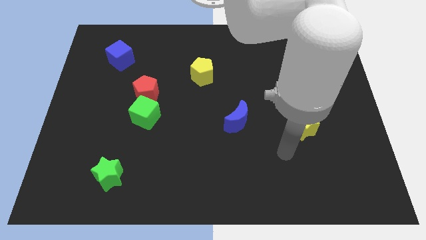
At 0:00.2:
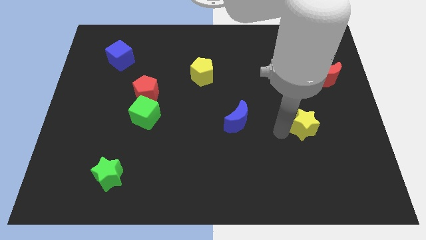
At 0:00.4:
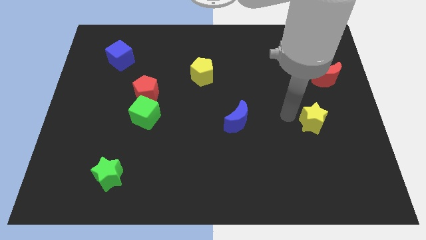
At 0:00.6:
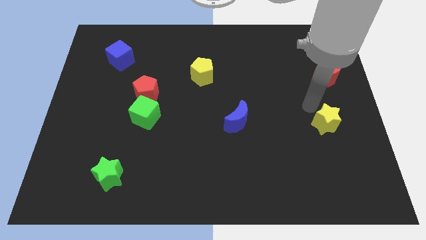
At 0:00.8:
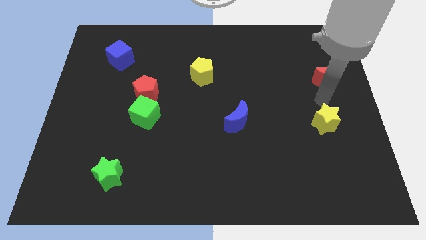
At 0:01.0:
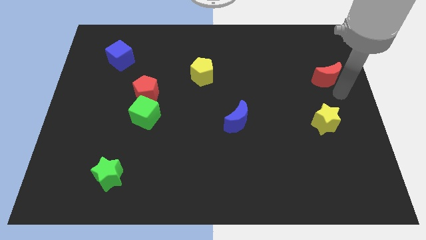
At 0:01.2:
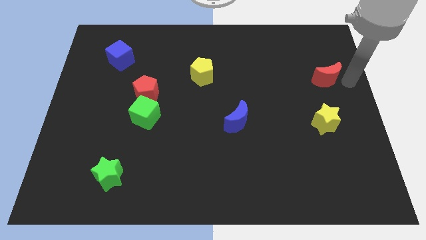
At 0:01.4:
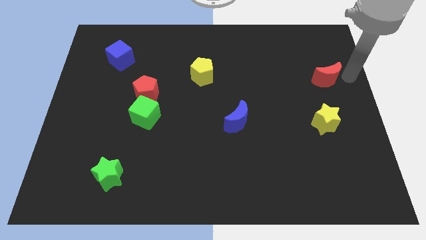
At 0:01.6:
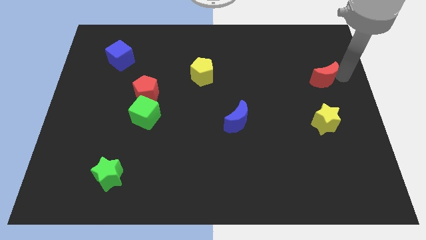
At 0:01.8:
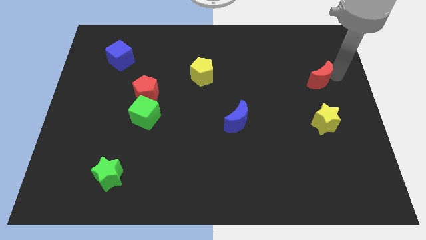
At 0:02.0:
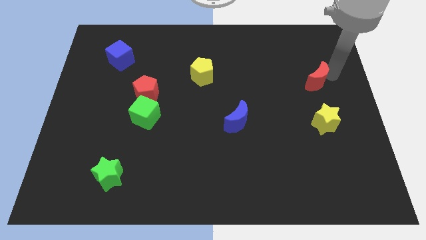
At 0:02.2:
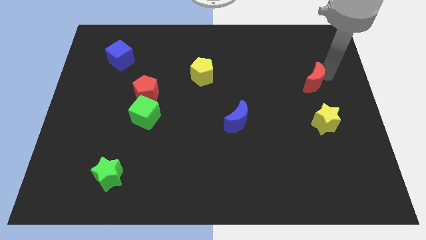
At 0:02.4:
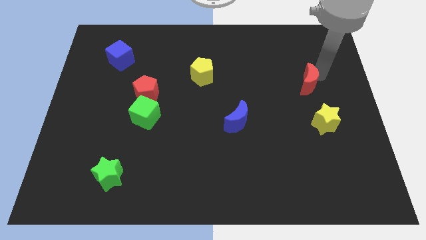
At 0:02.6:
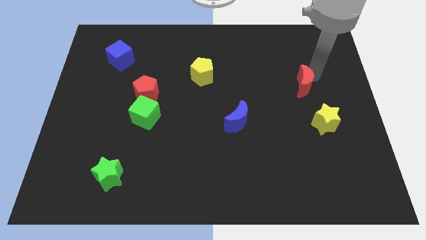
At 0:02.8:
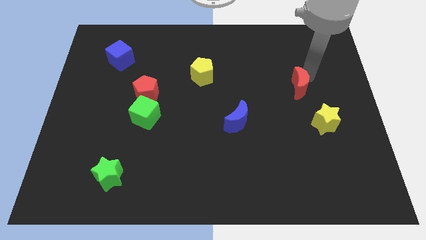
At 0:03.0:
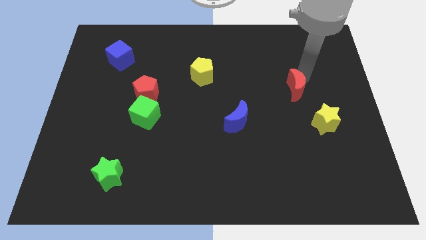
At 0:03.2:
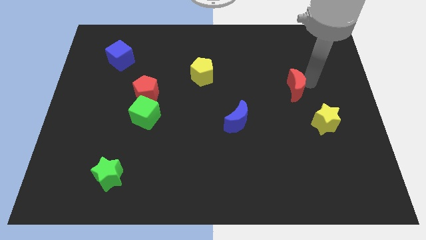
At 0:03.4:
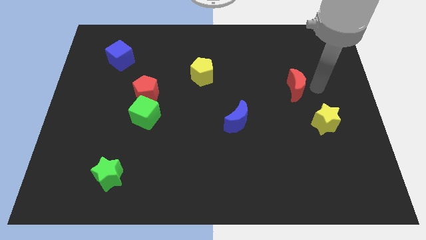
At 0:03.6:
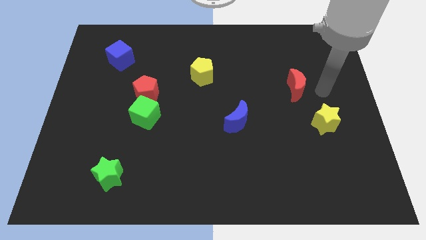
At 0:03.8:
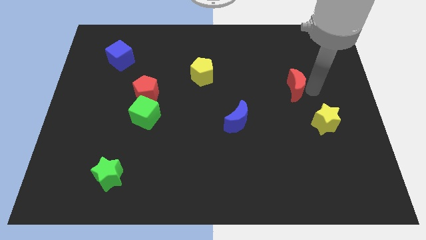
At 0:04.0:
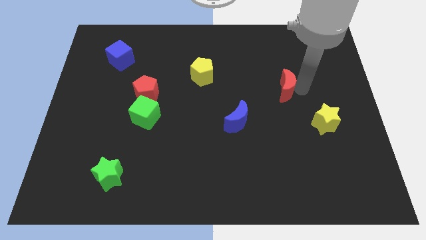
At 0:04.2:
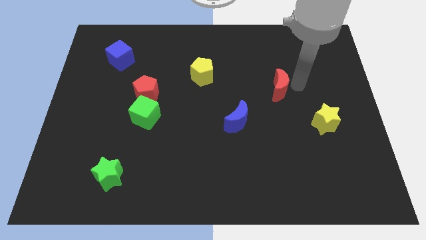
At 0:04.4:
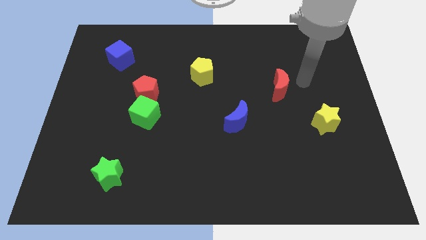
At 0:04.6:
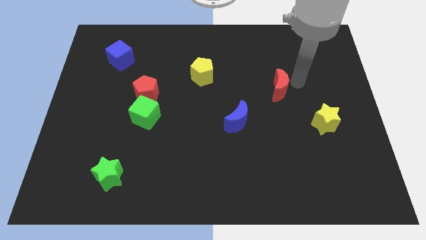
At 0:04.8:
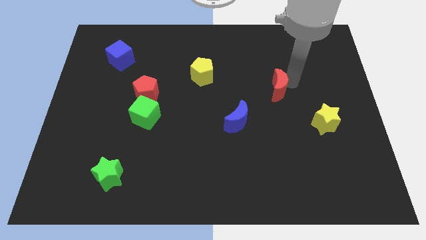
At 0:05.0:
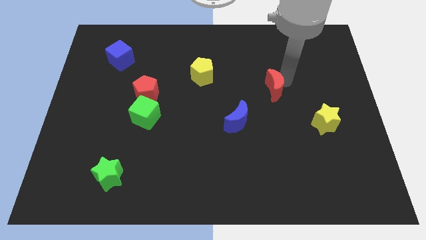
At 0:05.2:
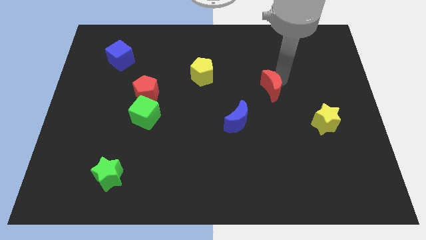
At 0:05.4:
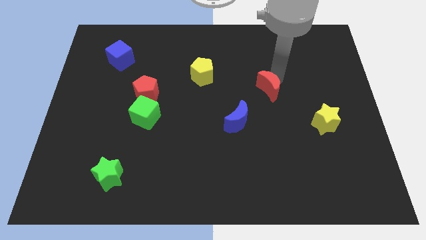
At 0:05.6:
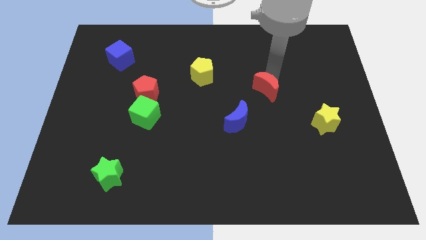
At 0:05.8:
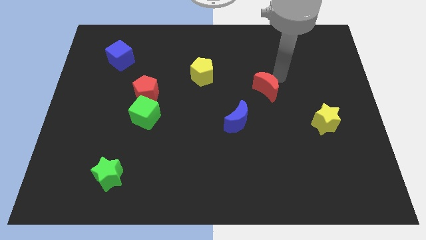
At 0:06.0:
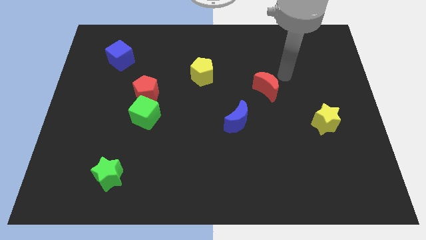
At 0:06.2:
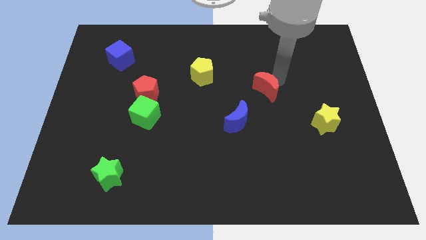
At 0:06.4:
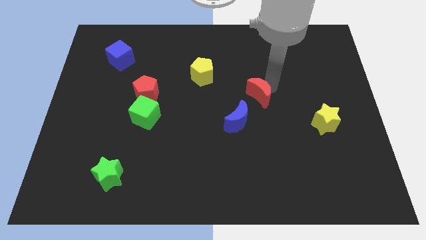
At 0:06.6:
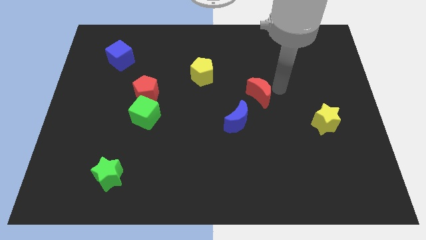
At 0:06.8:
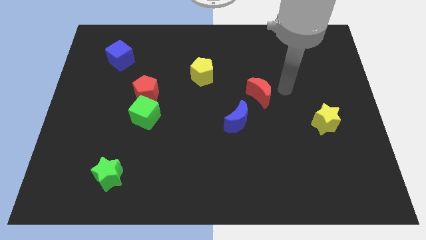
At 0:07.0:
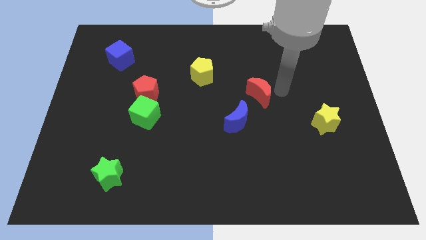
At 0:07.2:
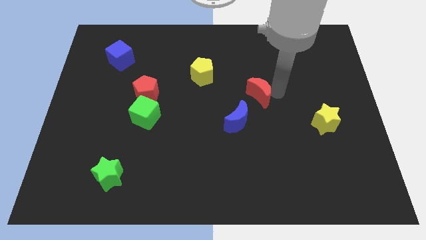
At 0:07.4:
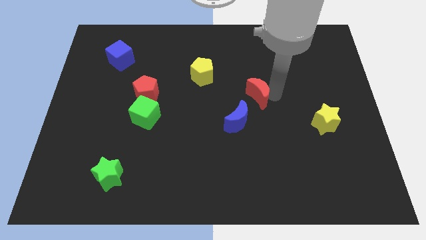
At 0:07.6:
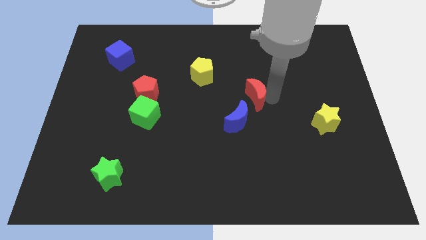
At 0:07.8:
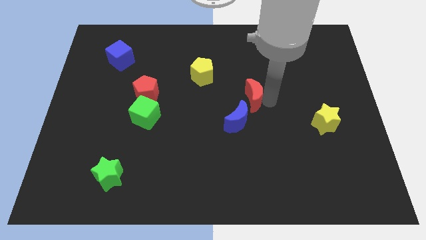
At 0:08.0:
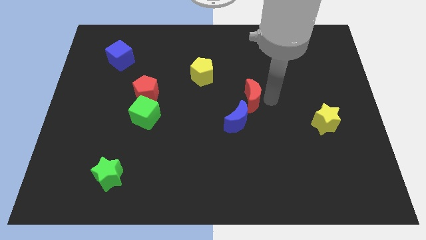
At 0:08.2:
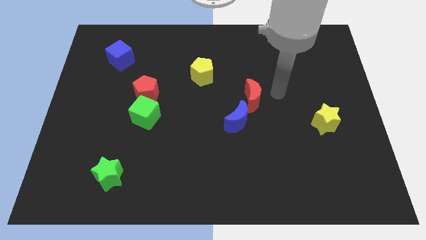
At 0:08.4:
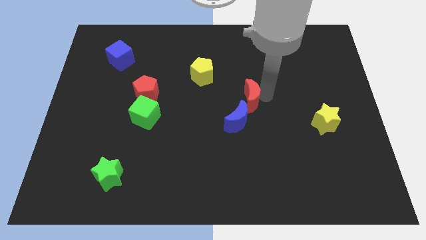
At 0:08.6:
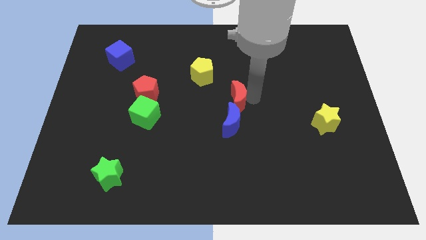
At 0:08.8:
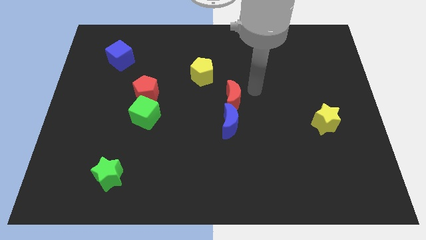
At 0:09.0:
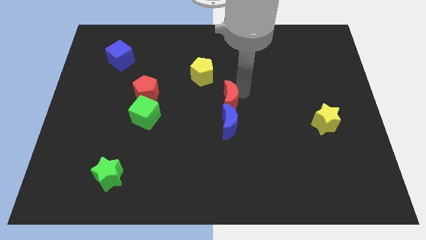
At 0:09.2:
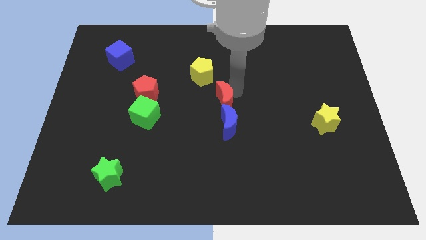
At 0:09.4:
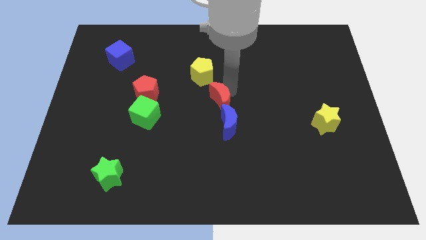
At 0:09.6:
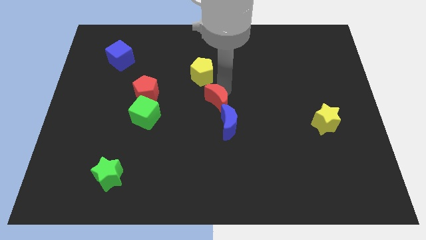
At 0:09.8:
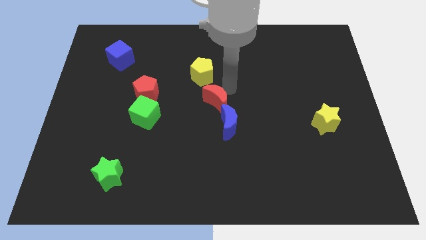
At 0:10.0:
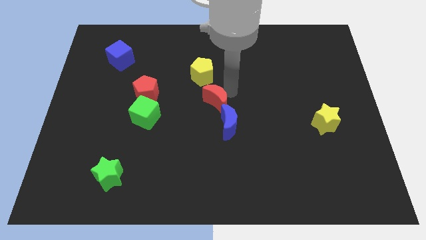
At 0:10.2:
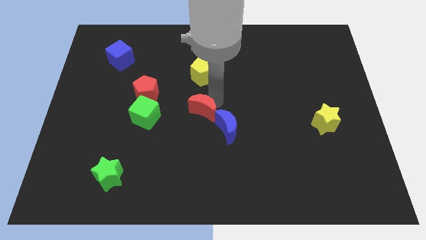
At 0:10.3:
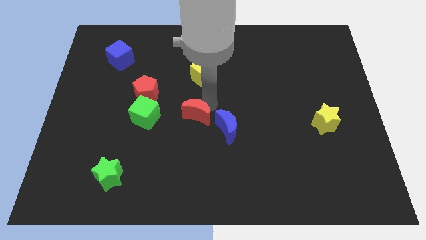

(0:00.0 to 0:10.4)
slide the red moon left of the blue moon

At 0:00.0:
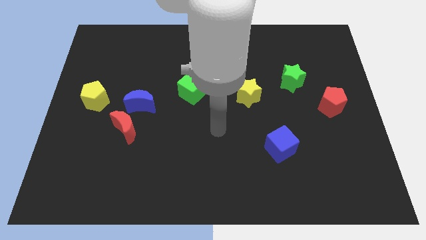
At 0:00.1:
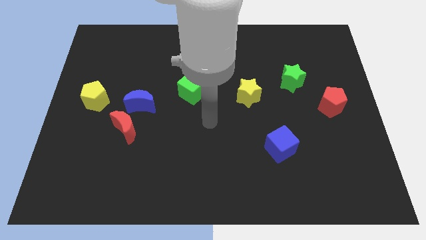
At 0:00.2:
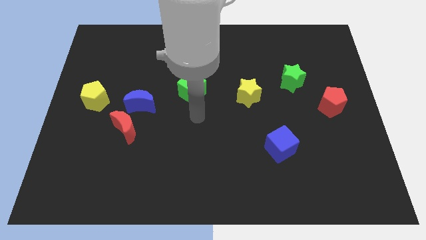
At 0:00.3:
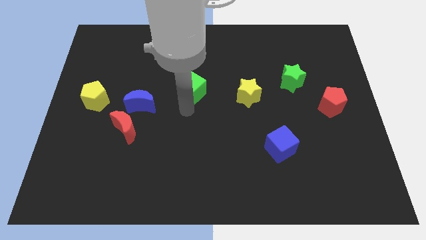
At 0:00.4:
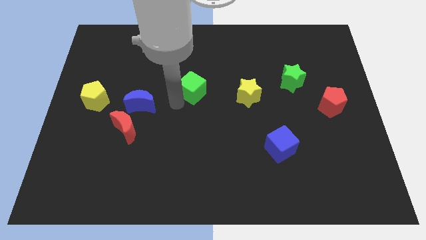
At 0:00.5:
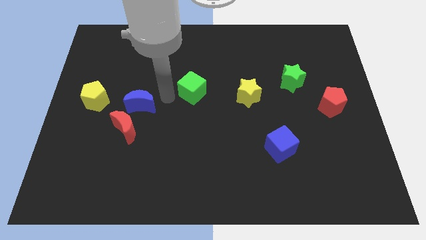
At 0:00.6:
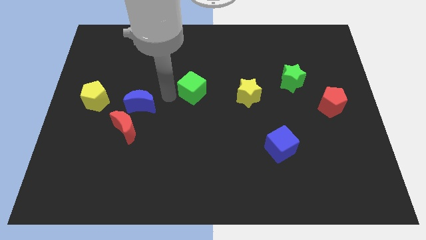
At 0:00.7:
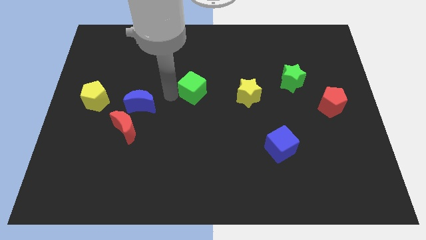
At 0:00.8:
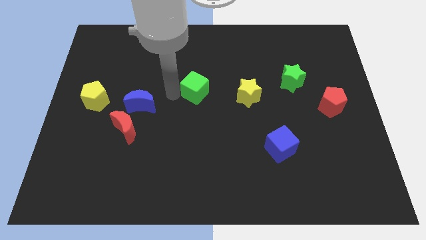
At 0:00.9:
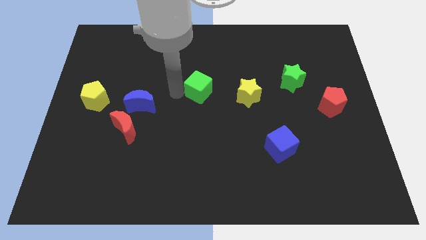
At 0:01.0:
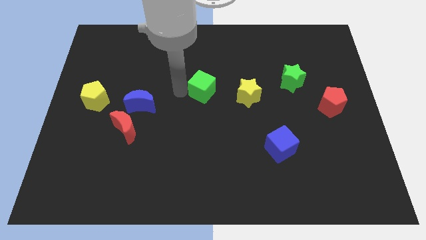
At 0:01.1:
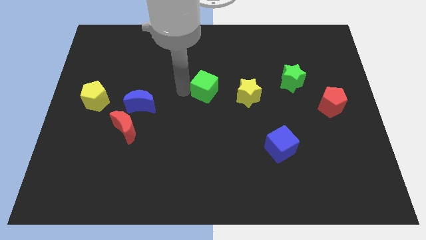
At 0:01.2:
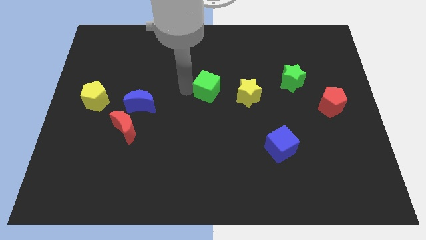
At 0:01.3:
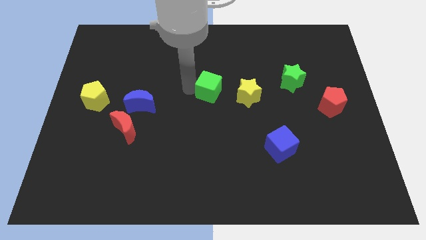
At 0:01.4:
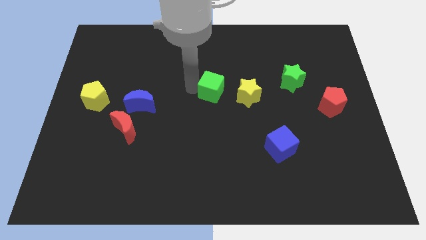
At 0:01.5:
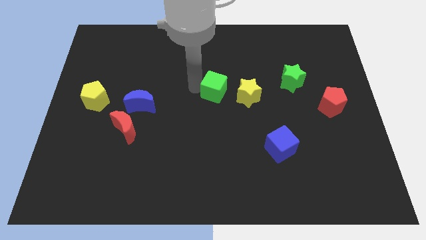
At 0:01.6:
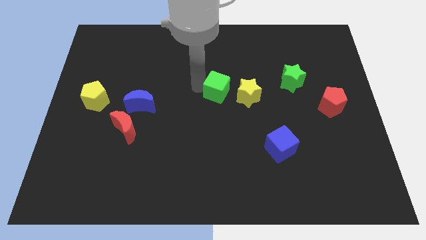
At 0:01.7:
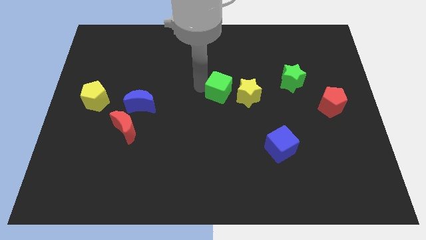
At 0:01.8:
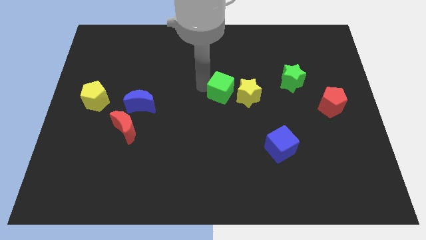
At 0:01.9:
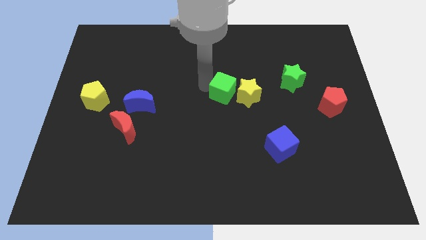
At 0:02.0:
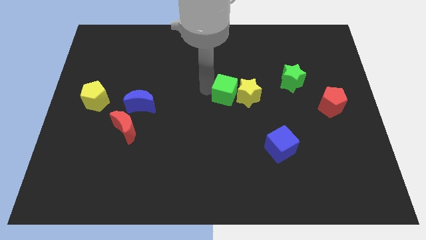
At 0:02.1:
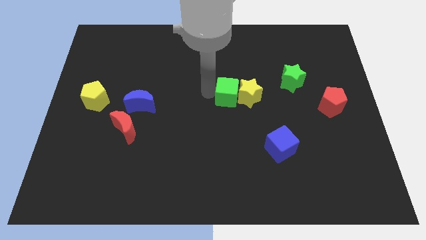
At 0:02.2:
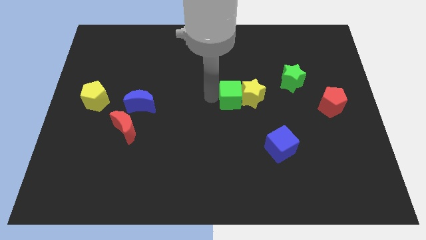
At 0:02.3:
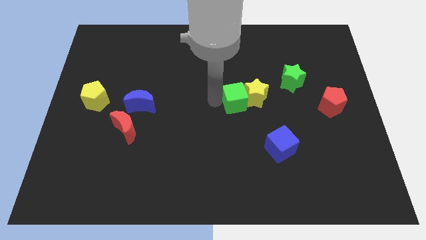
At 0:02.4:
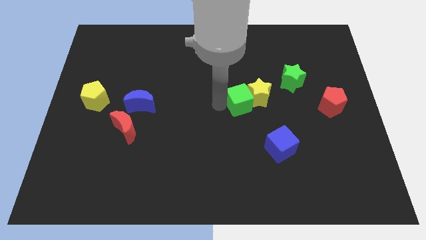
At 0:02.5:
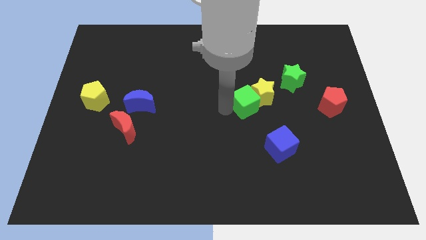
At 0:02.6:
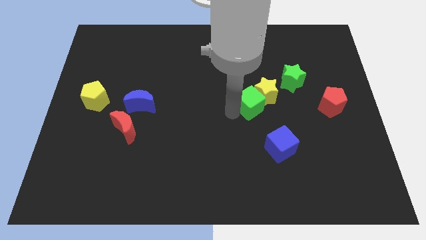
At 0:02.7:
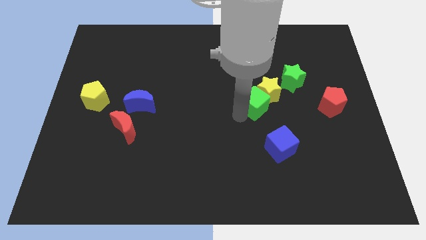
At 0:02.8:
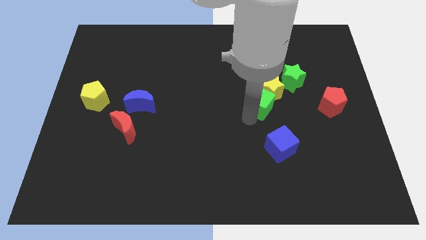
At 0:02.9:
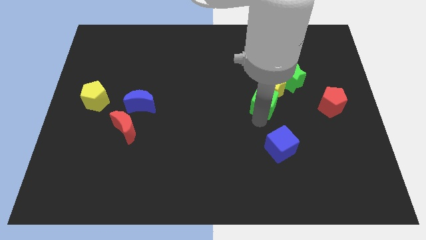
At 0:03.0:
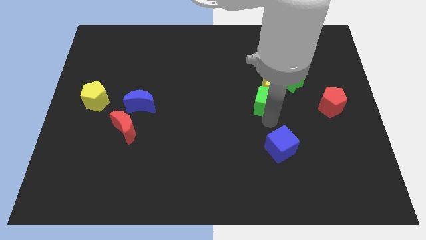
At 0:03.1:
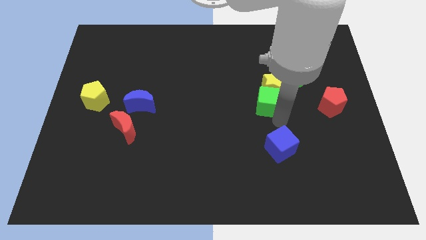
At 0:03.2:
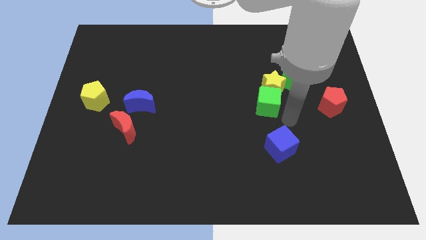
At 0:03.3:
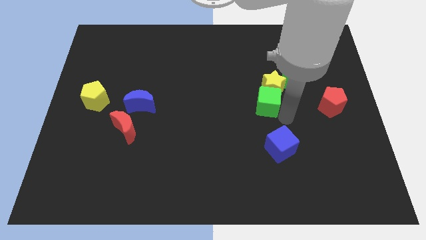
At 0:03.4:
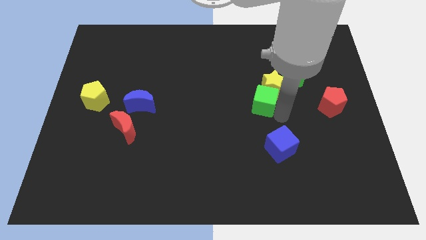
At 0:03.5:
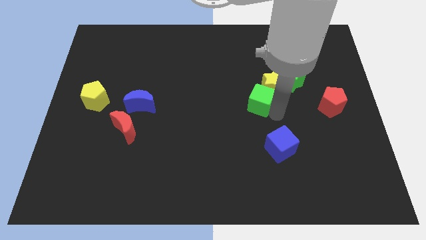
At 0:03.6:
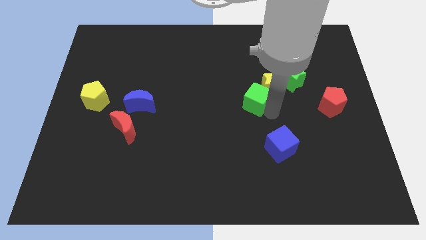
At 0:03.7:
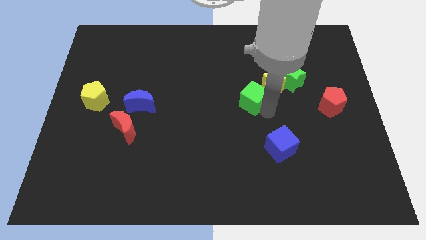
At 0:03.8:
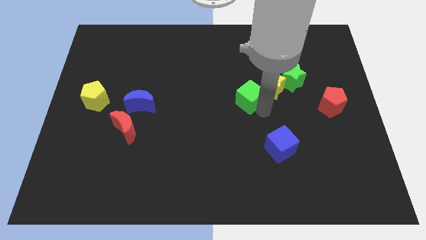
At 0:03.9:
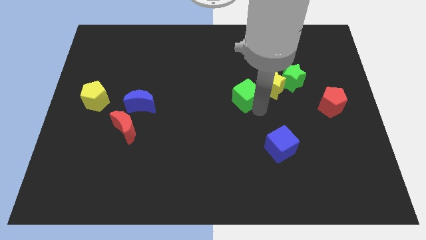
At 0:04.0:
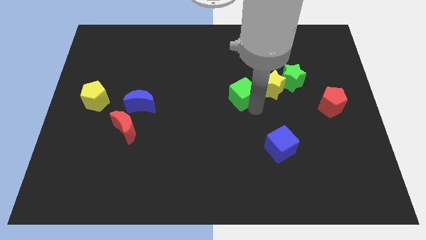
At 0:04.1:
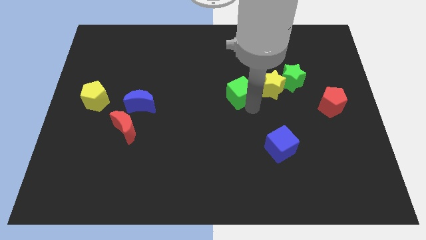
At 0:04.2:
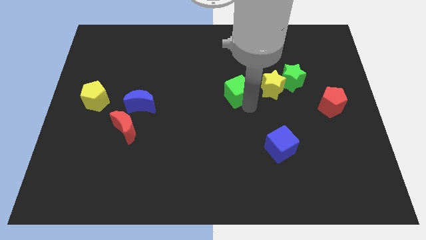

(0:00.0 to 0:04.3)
slide the green cube left of the green star
